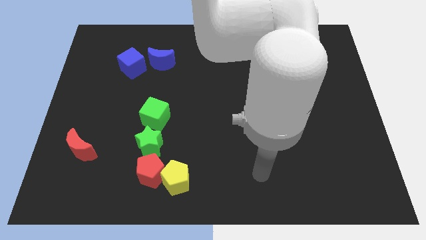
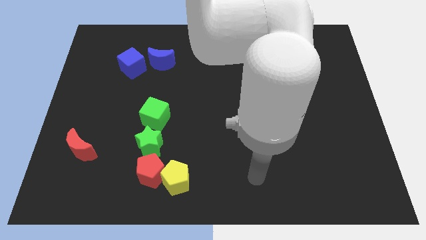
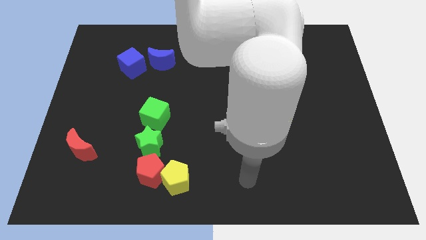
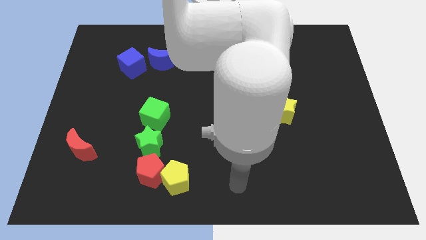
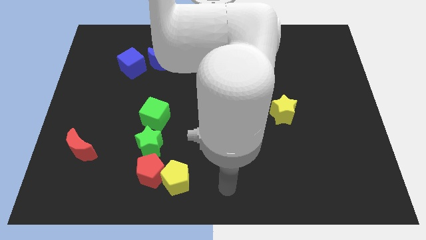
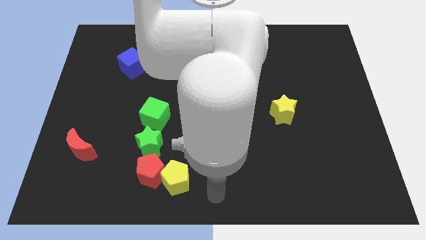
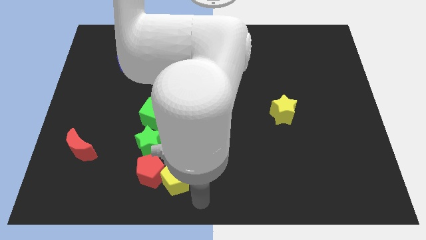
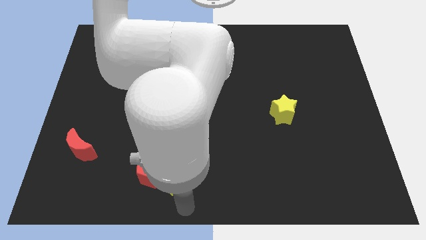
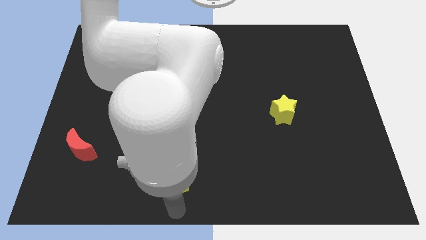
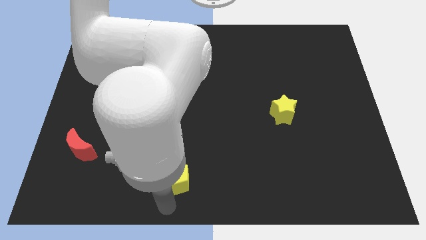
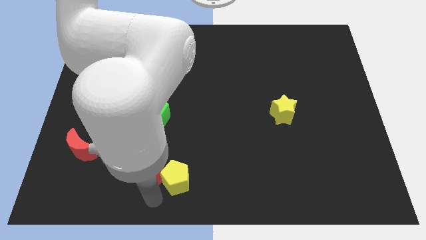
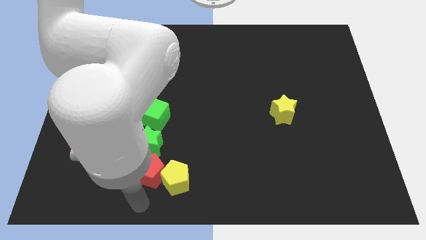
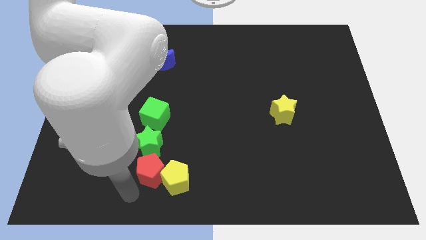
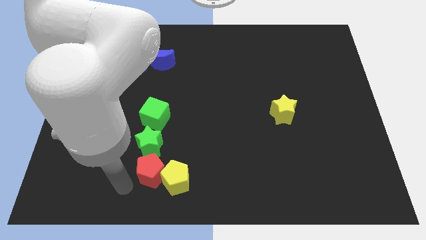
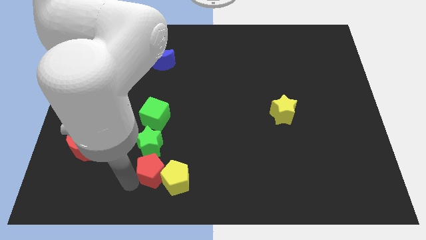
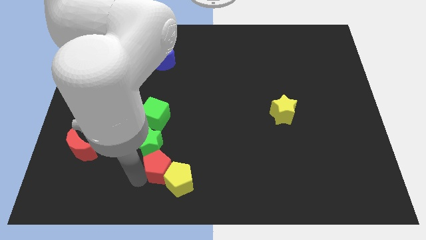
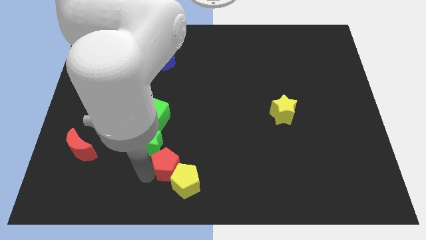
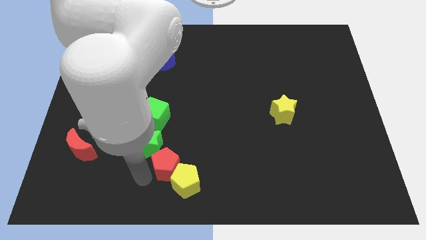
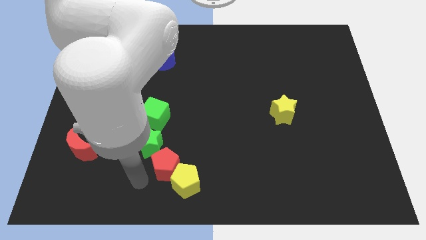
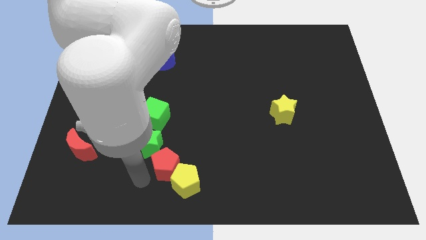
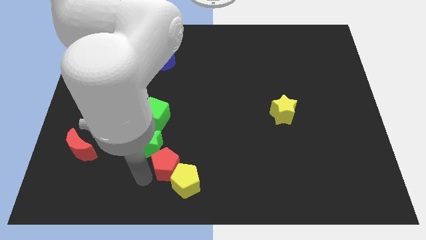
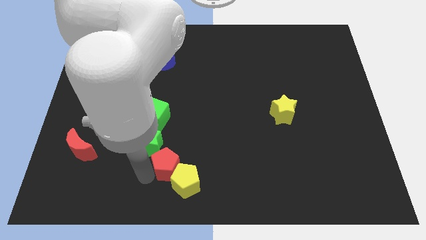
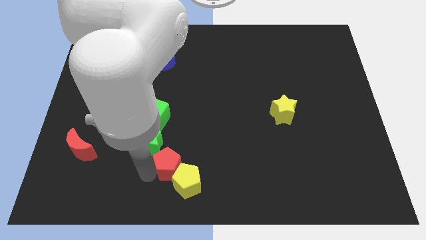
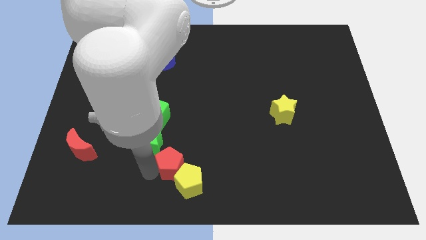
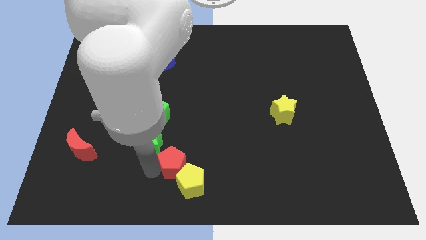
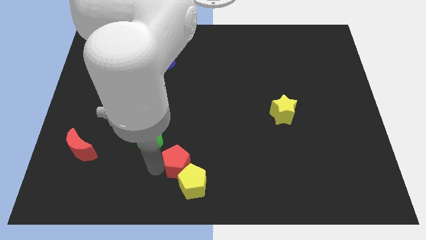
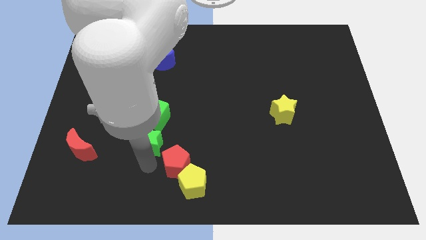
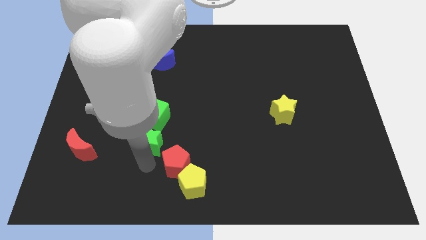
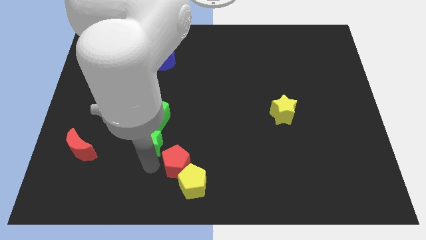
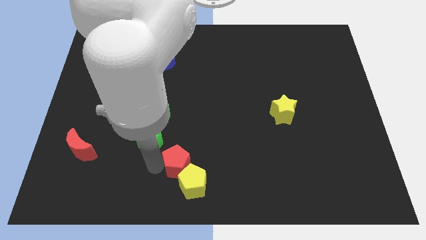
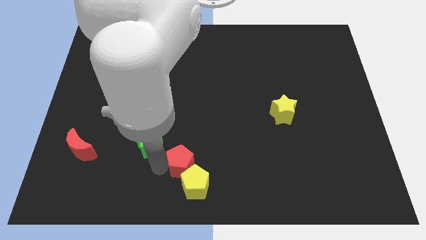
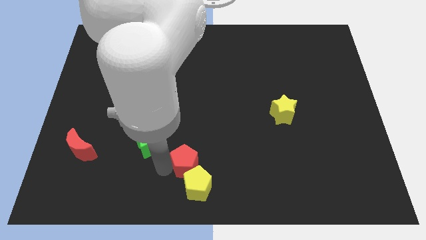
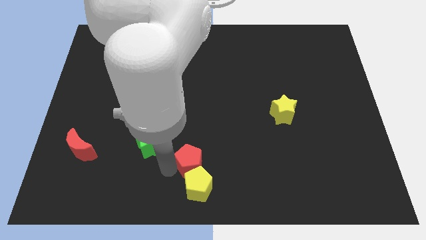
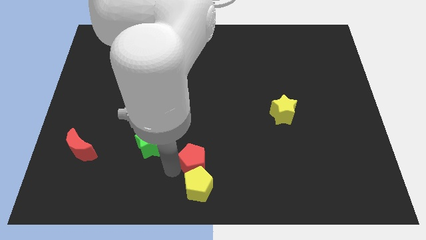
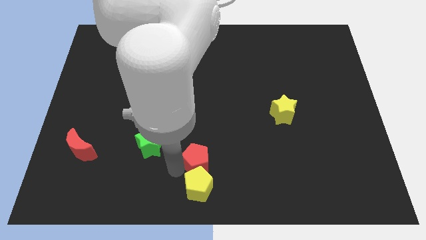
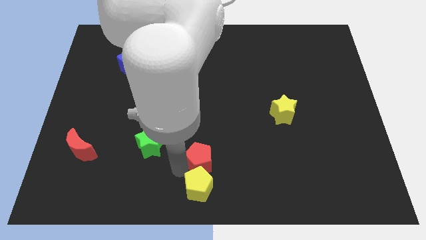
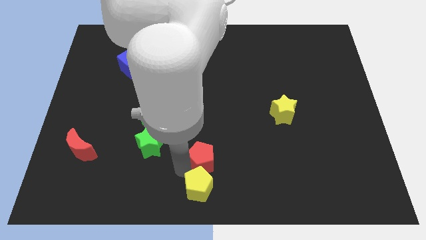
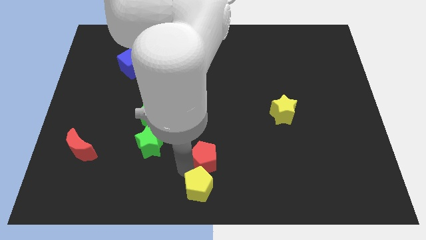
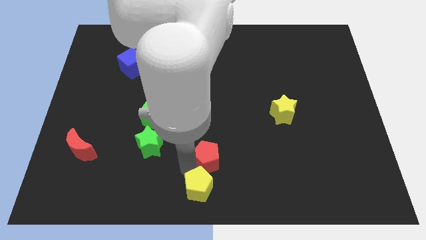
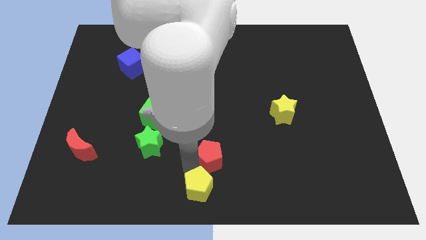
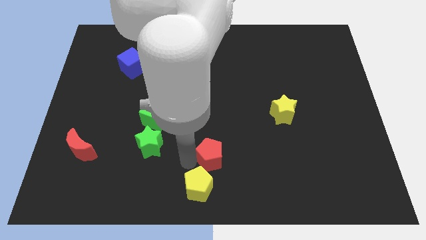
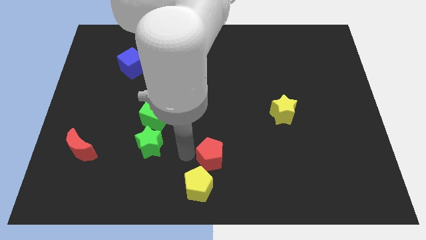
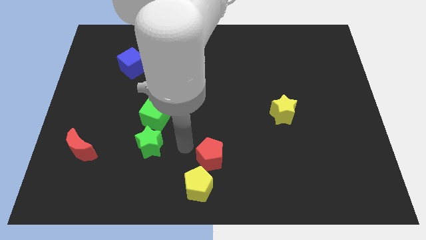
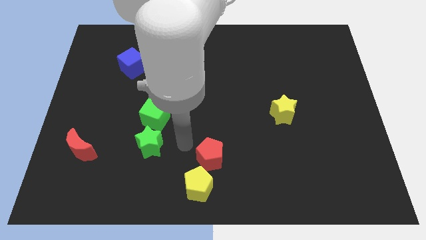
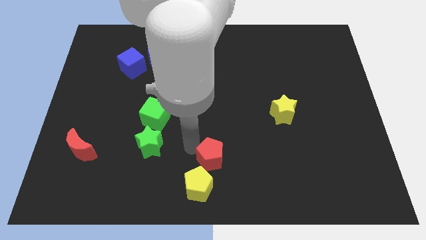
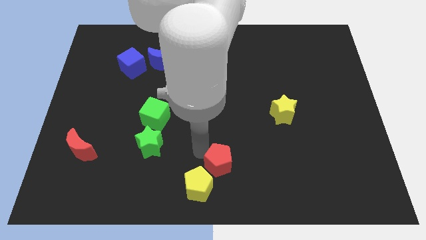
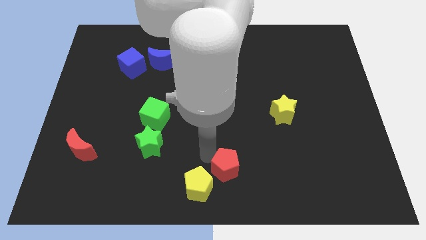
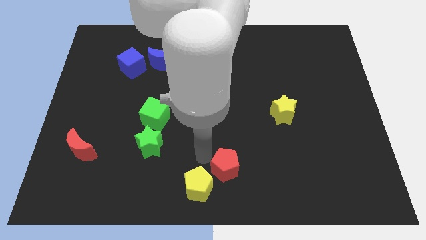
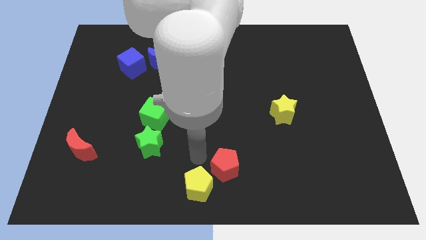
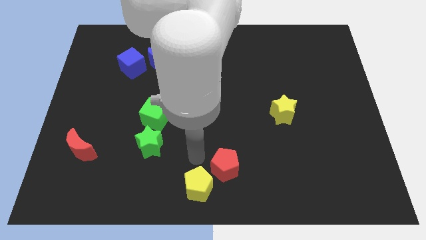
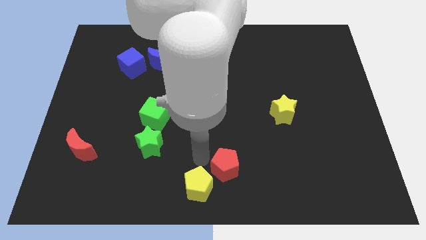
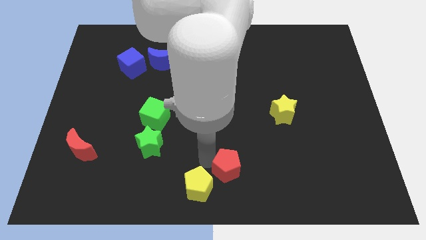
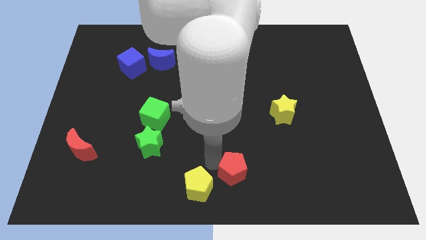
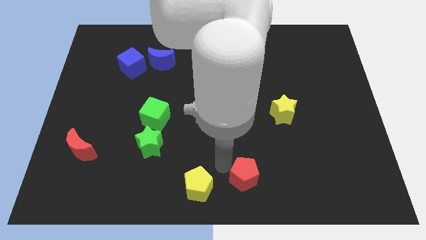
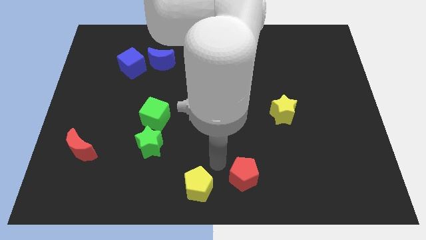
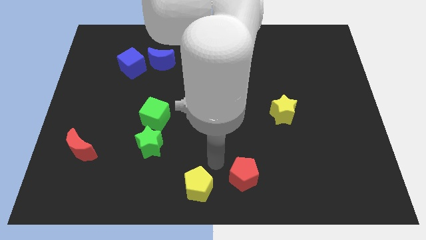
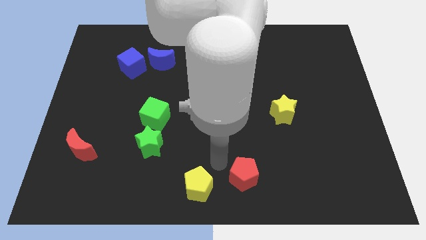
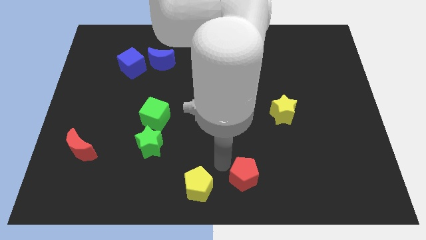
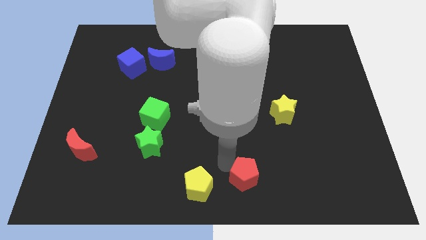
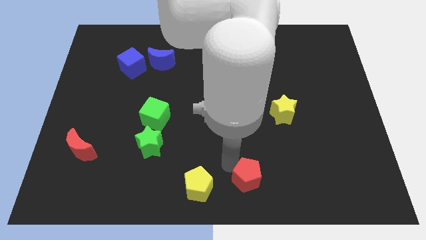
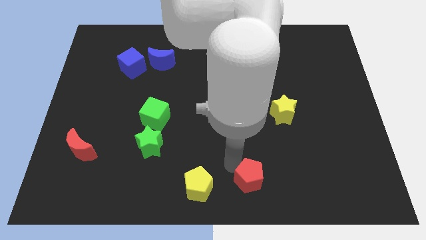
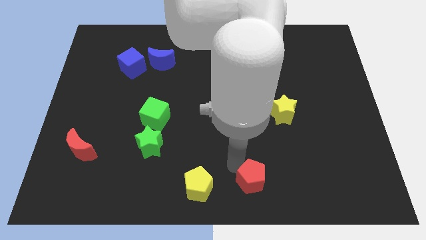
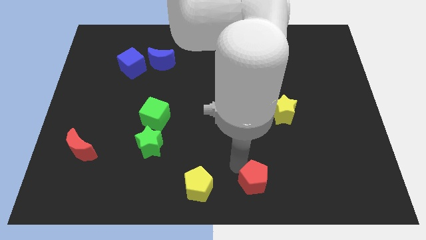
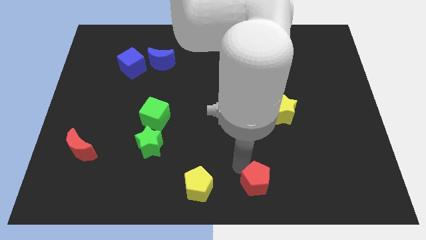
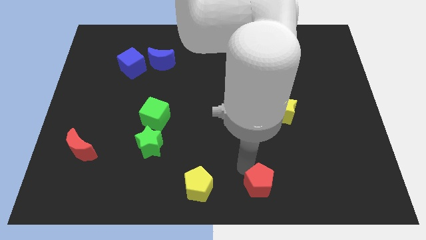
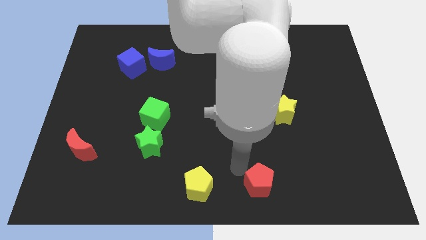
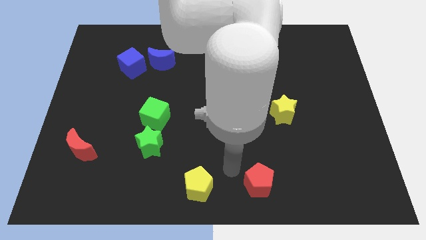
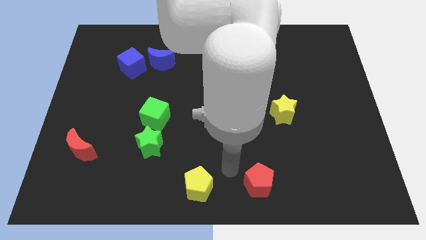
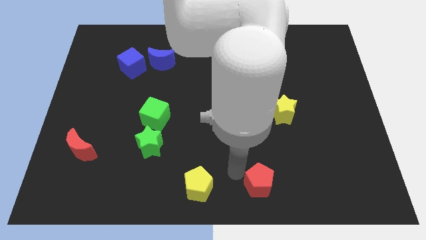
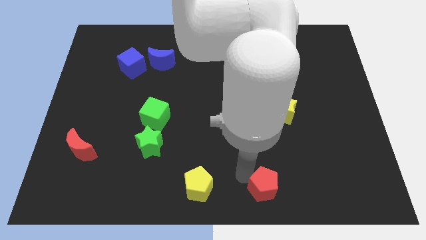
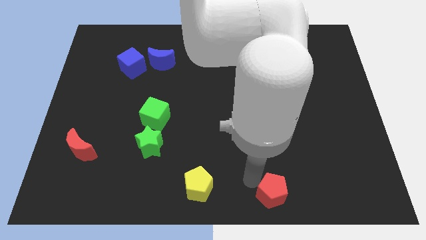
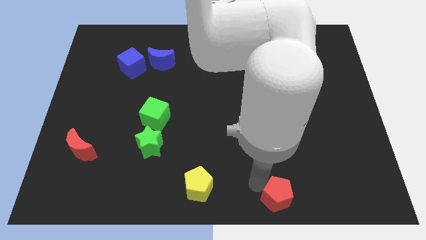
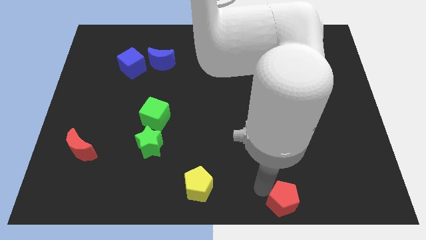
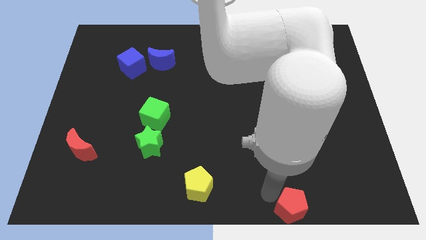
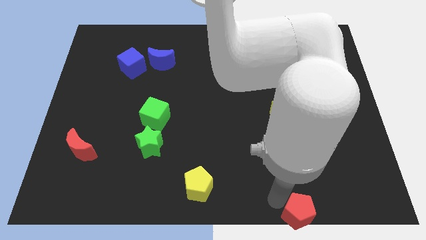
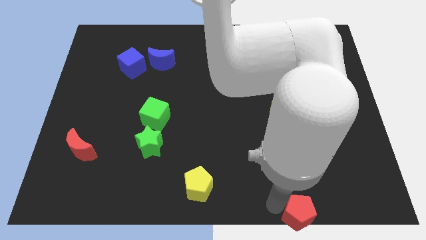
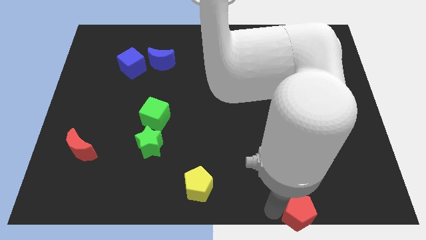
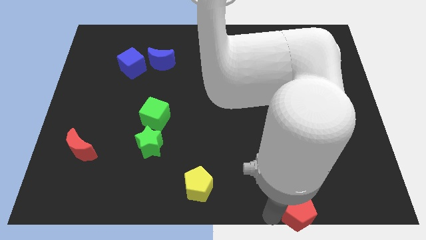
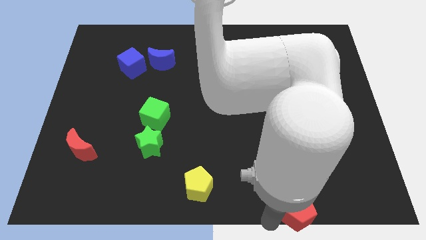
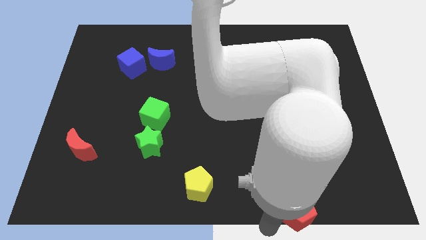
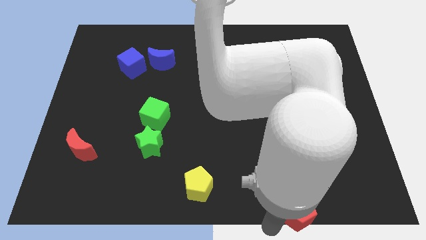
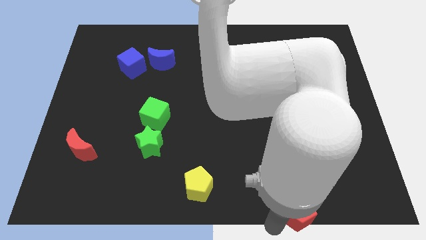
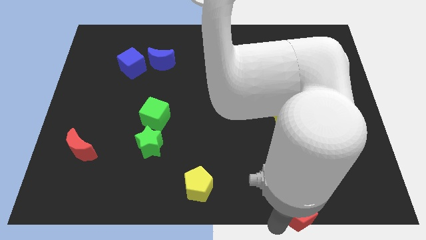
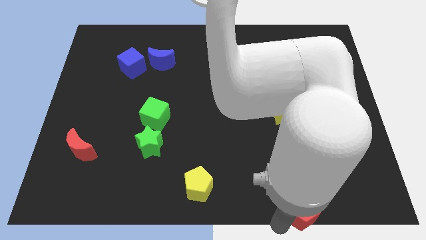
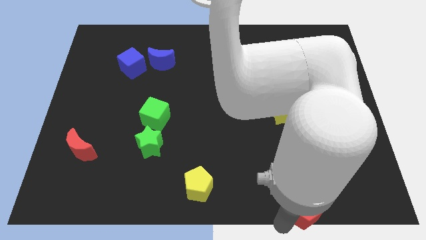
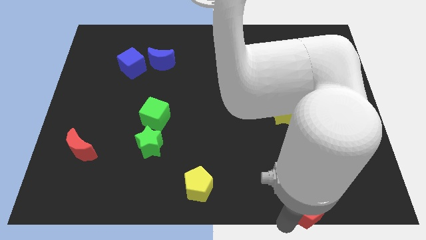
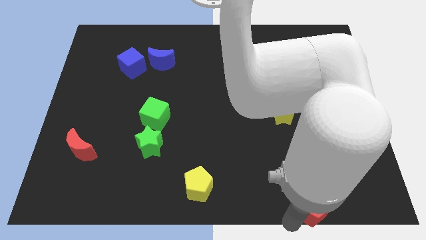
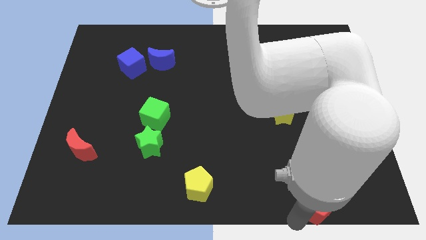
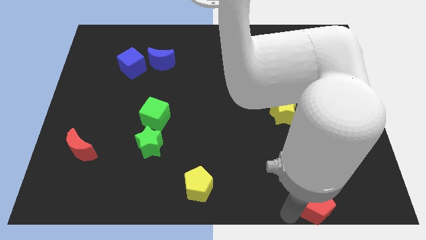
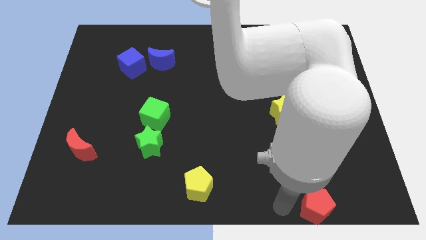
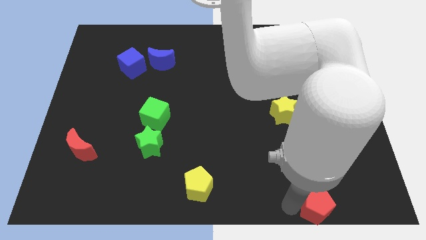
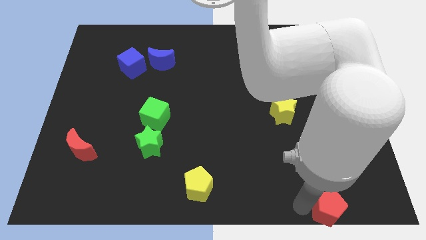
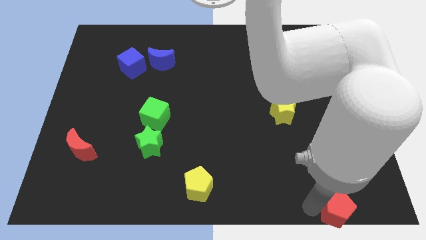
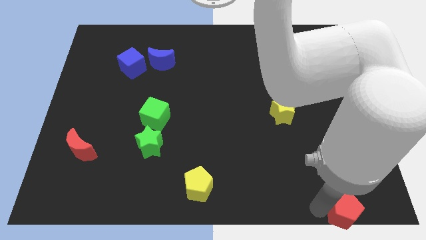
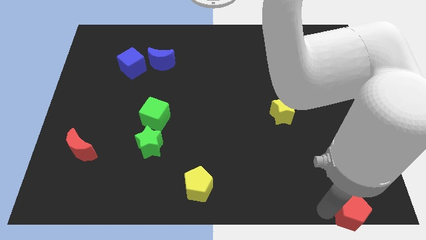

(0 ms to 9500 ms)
slide the red pentagon to the bottom right corner
